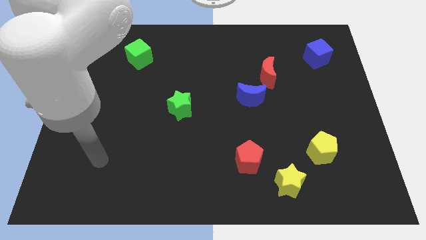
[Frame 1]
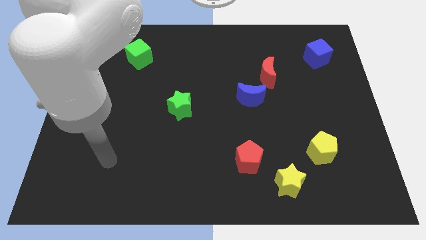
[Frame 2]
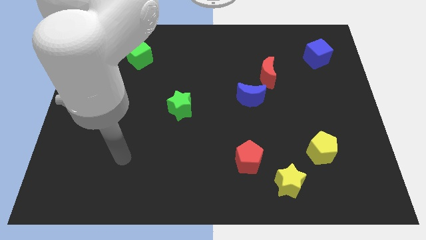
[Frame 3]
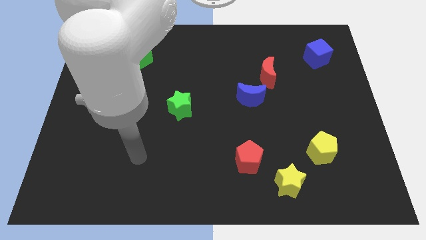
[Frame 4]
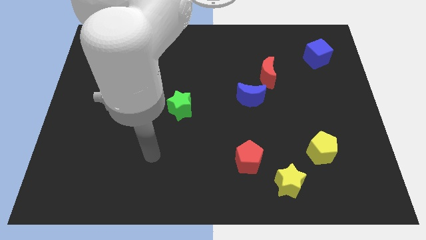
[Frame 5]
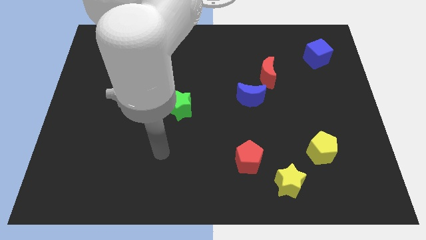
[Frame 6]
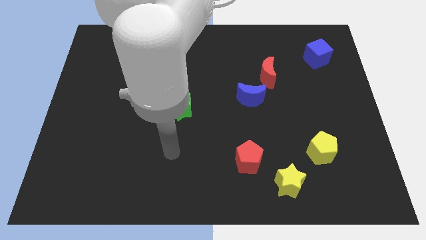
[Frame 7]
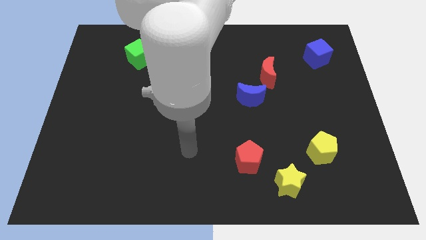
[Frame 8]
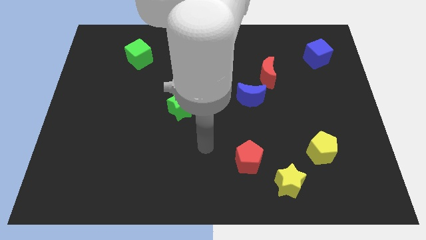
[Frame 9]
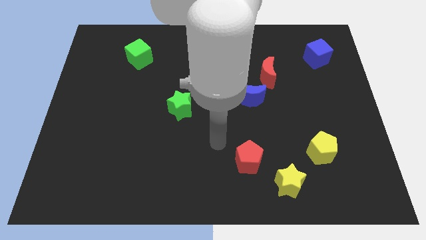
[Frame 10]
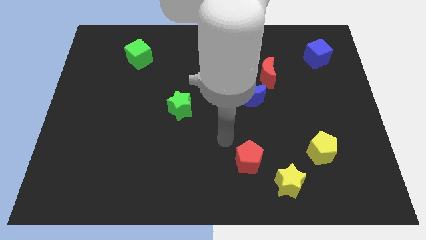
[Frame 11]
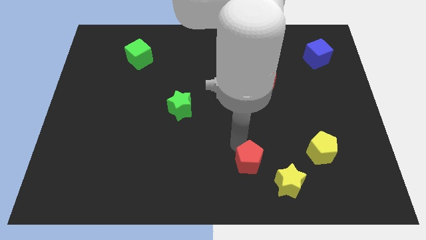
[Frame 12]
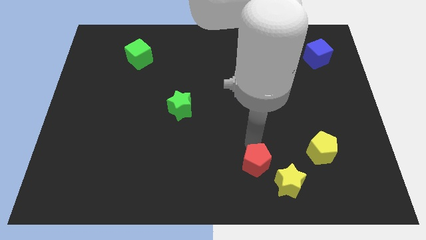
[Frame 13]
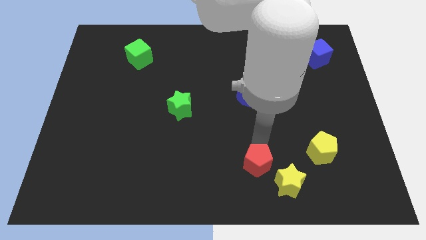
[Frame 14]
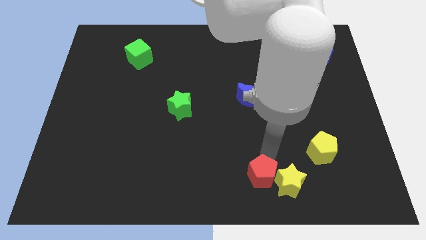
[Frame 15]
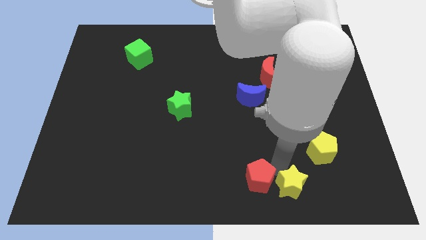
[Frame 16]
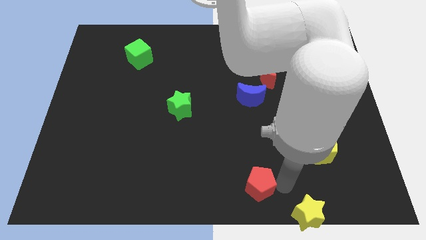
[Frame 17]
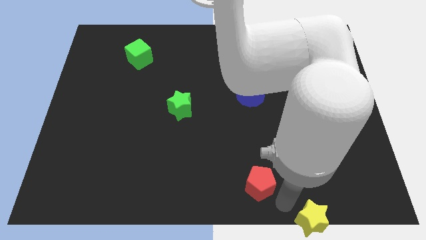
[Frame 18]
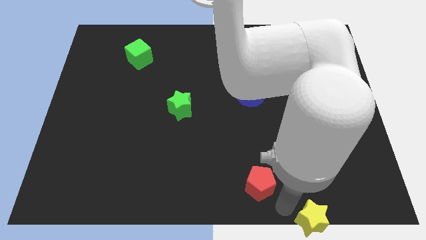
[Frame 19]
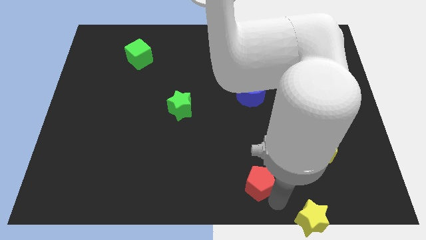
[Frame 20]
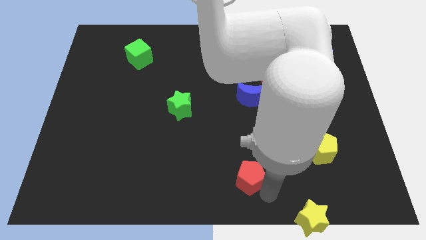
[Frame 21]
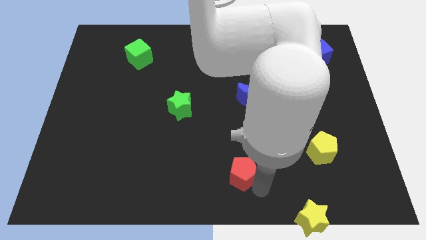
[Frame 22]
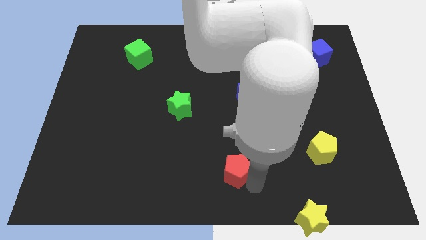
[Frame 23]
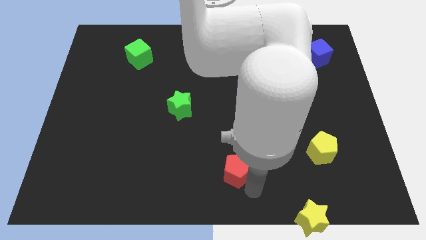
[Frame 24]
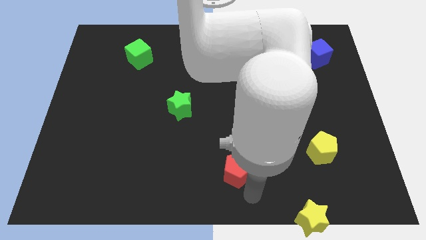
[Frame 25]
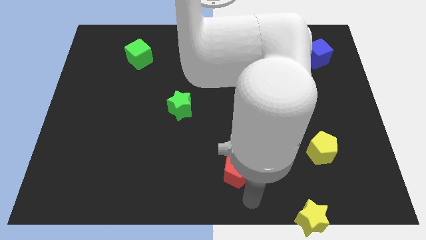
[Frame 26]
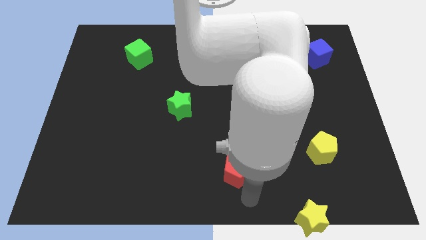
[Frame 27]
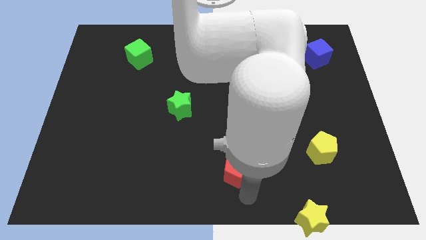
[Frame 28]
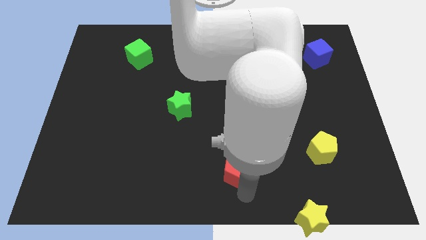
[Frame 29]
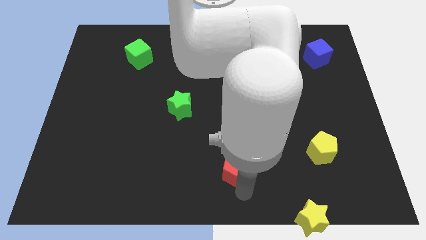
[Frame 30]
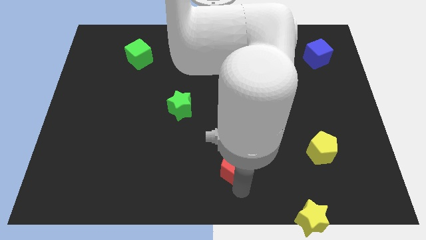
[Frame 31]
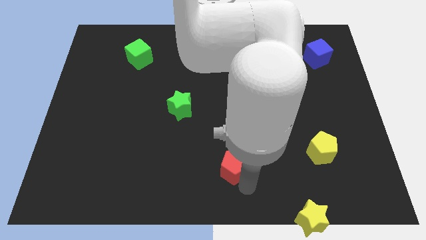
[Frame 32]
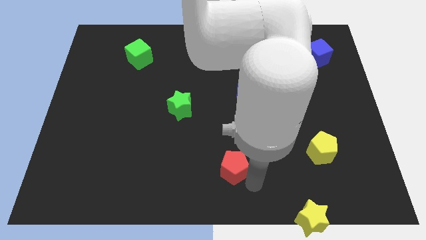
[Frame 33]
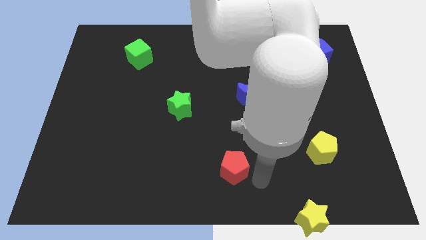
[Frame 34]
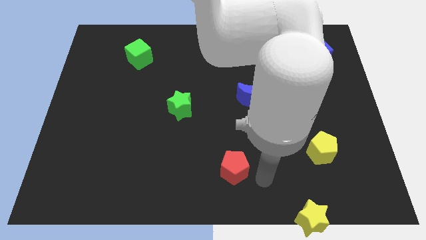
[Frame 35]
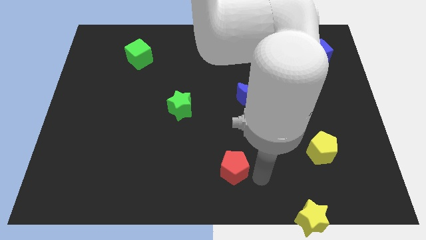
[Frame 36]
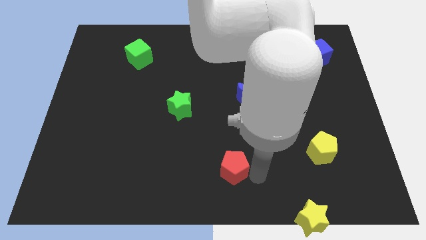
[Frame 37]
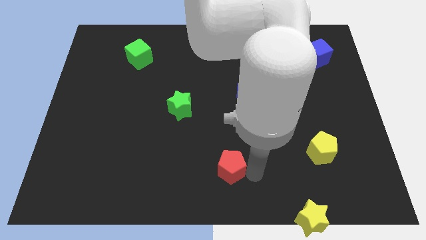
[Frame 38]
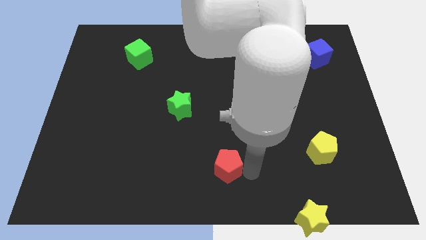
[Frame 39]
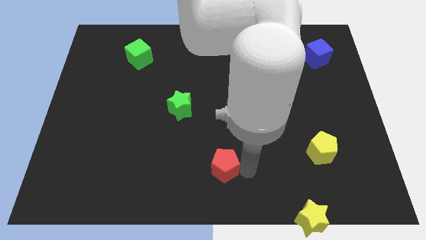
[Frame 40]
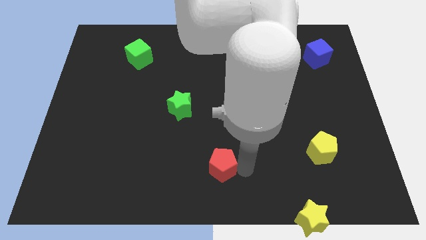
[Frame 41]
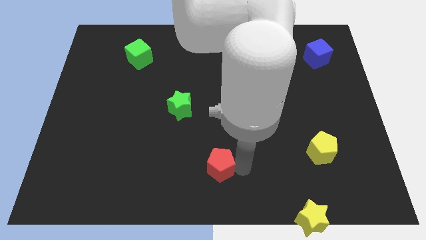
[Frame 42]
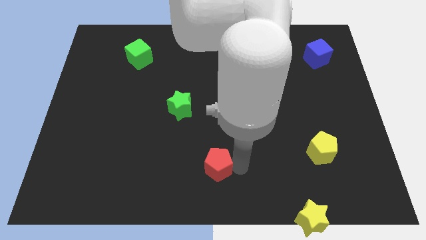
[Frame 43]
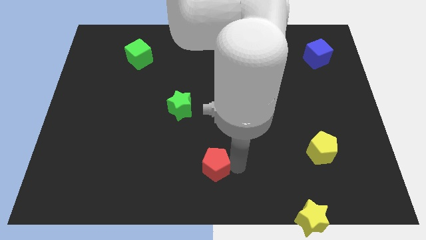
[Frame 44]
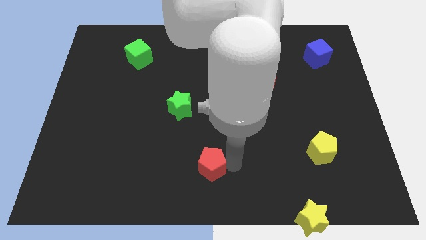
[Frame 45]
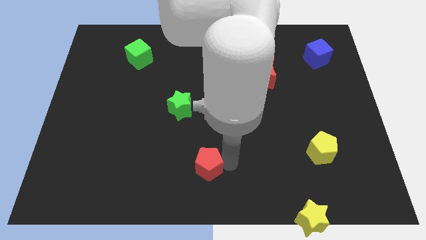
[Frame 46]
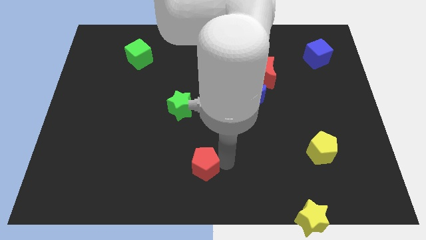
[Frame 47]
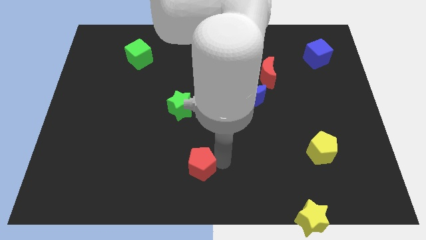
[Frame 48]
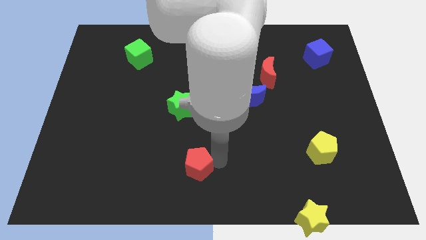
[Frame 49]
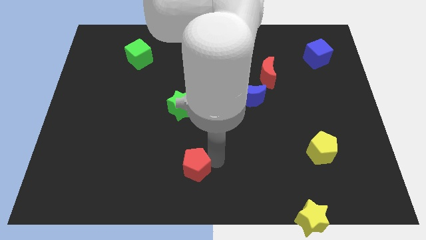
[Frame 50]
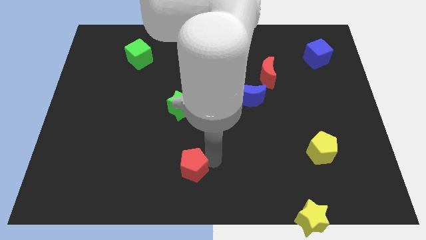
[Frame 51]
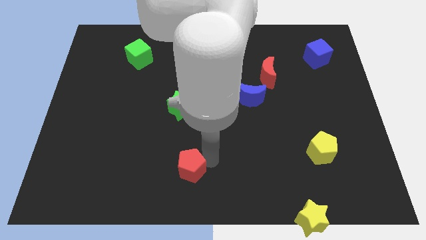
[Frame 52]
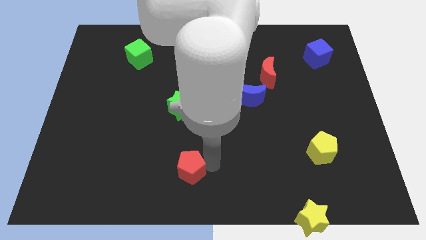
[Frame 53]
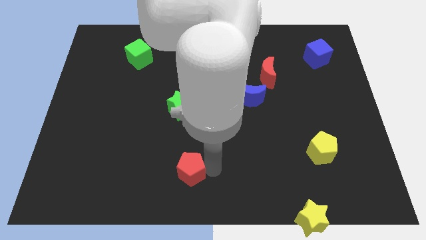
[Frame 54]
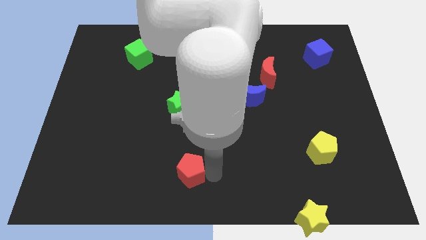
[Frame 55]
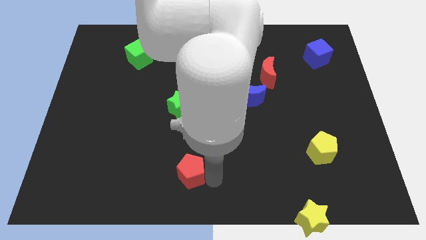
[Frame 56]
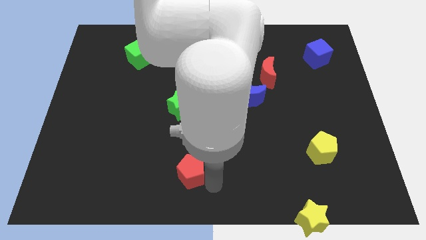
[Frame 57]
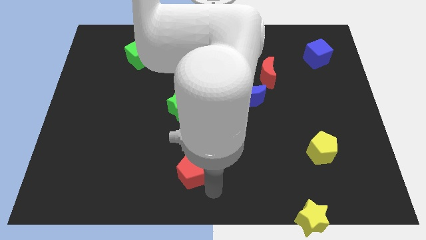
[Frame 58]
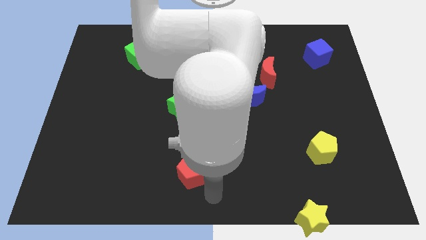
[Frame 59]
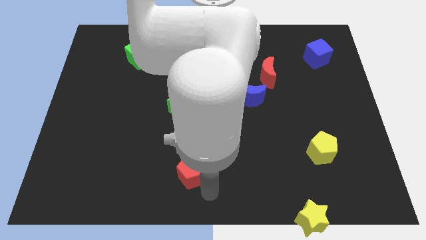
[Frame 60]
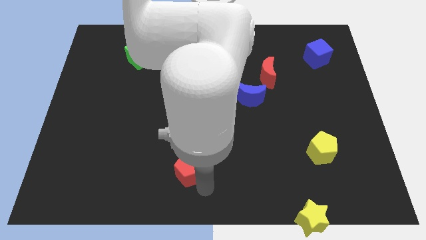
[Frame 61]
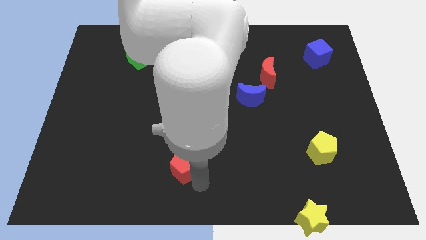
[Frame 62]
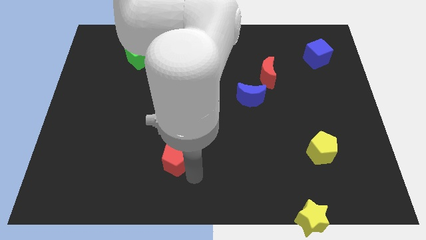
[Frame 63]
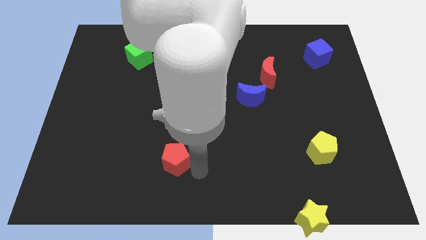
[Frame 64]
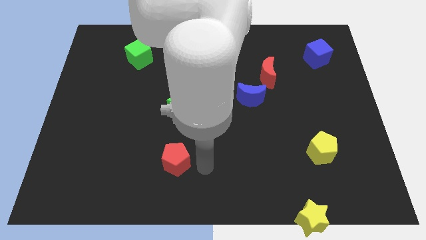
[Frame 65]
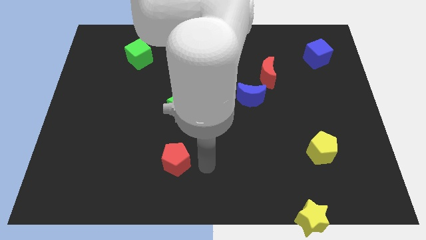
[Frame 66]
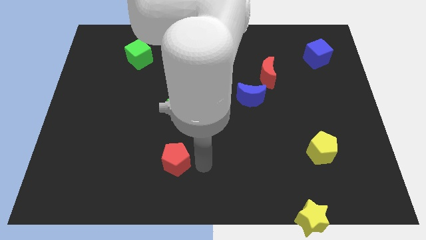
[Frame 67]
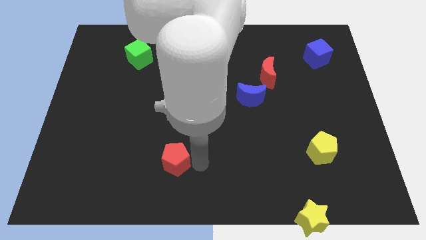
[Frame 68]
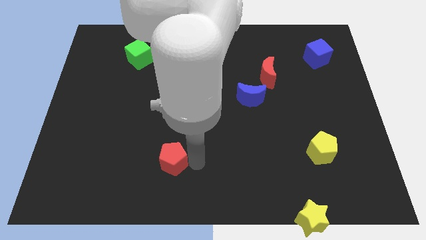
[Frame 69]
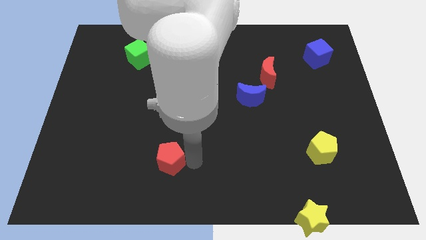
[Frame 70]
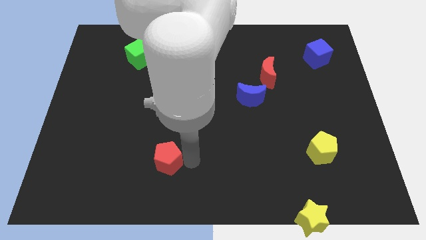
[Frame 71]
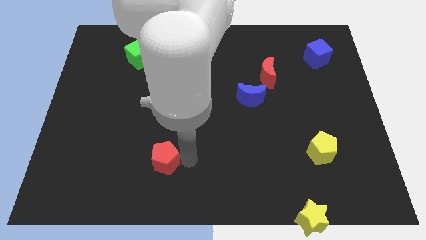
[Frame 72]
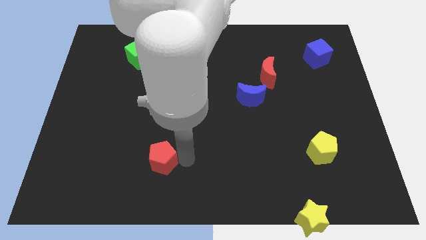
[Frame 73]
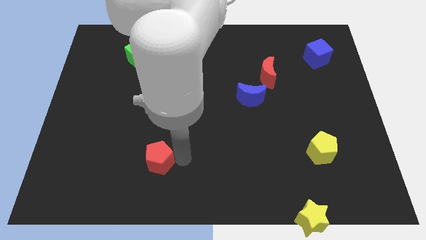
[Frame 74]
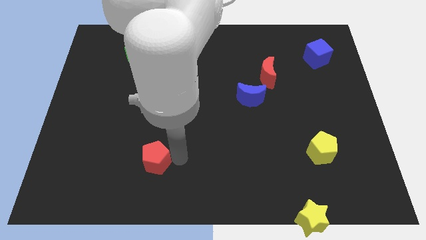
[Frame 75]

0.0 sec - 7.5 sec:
slide the red pentagon to the left

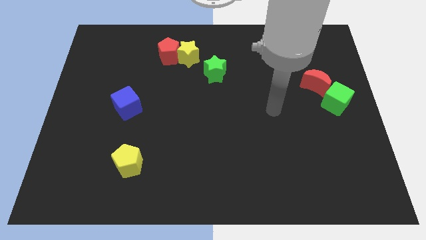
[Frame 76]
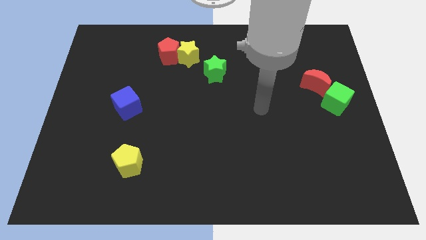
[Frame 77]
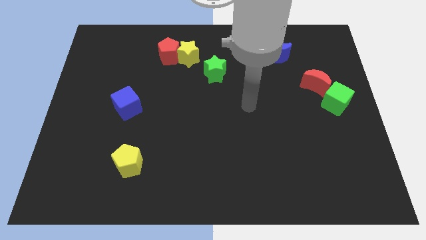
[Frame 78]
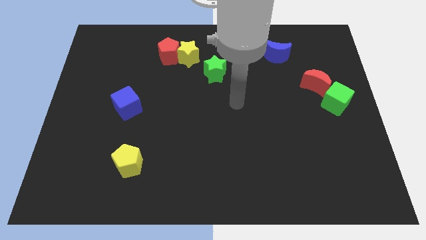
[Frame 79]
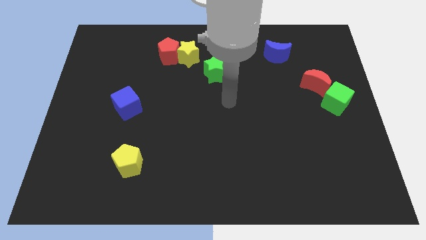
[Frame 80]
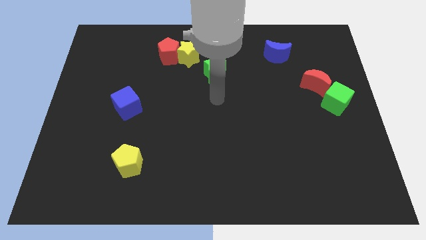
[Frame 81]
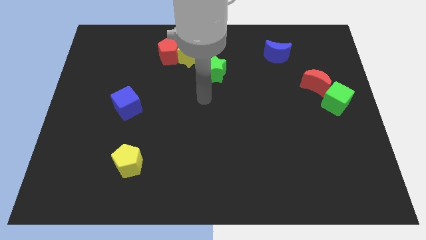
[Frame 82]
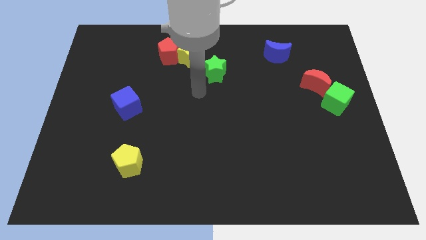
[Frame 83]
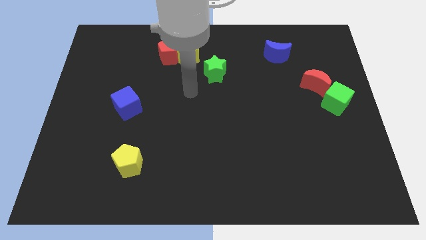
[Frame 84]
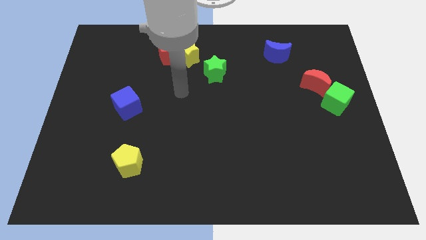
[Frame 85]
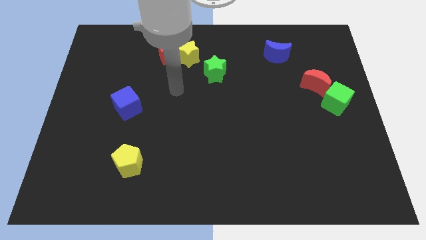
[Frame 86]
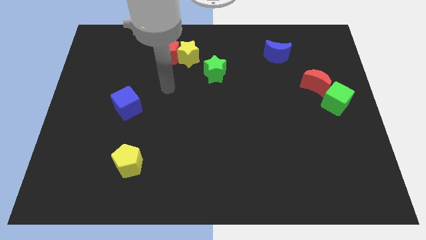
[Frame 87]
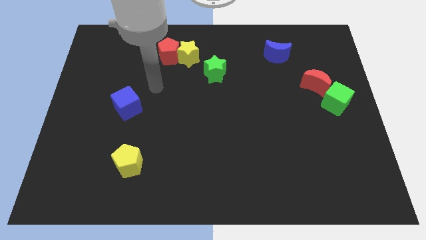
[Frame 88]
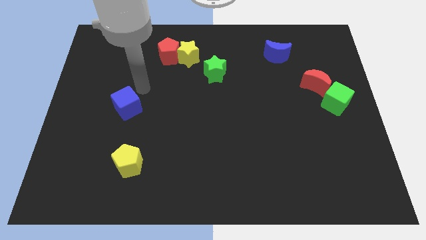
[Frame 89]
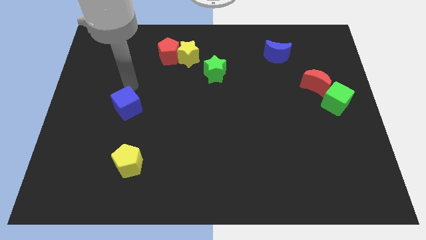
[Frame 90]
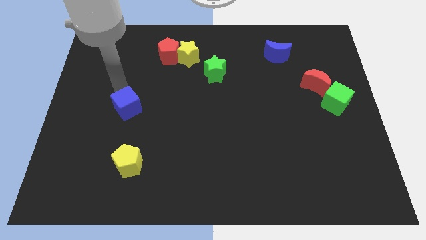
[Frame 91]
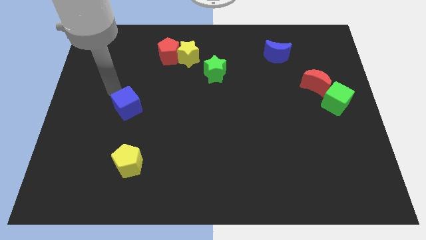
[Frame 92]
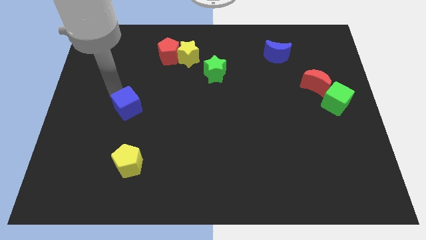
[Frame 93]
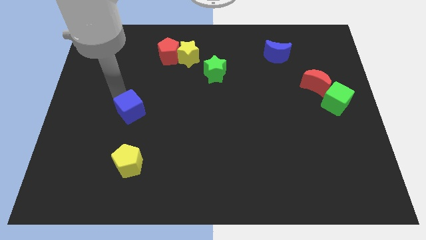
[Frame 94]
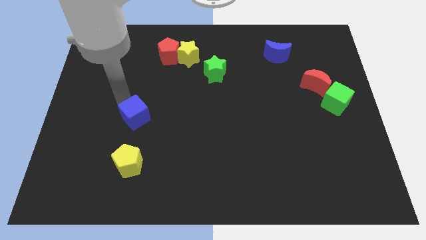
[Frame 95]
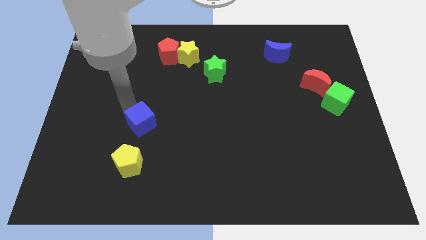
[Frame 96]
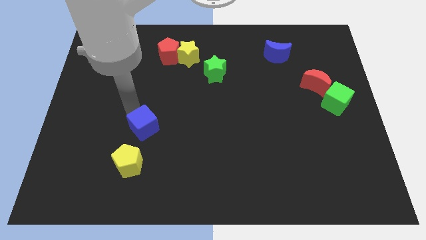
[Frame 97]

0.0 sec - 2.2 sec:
move the blue cube downwards and to the right a little
